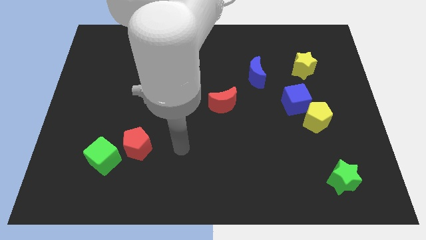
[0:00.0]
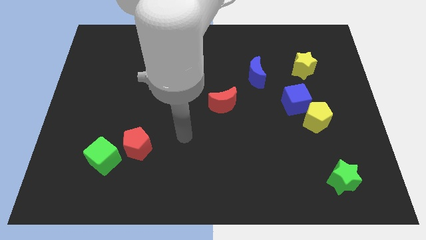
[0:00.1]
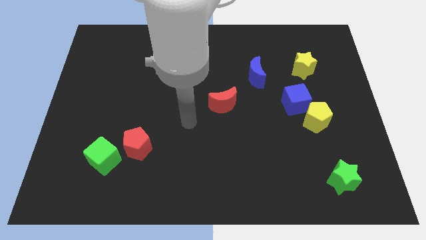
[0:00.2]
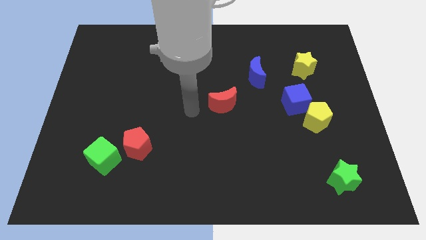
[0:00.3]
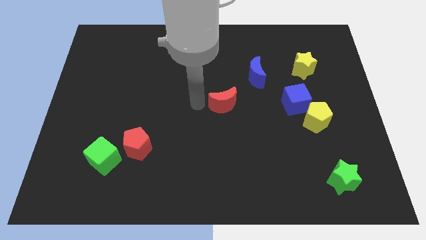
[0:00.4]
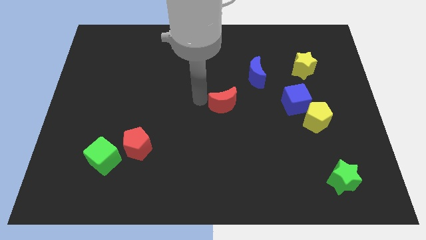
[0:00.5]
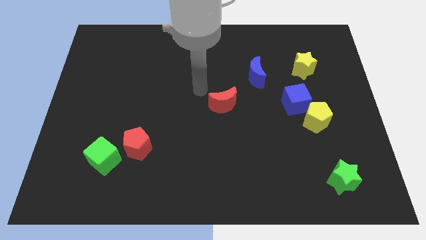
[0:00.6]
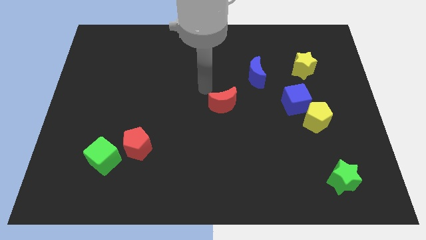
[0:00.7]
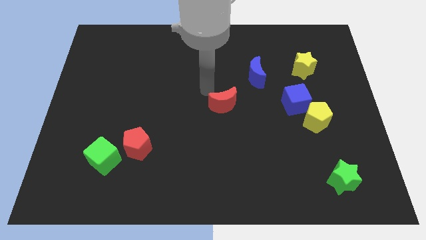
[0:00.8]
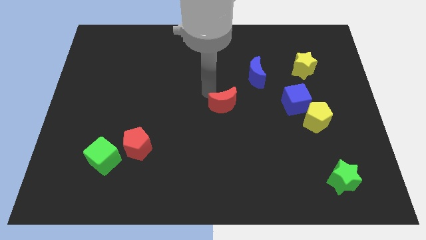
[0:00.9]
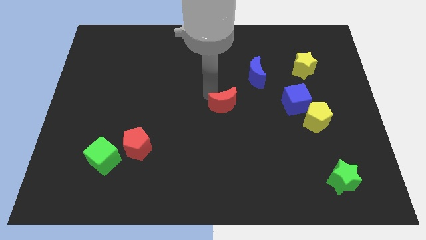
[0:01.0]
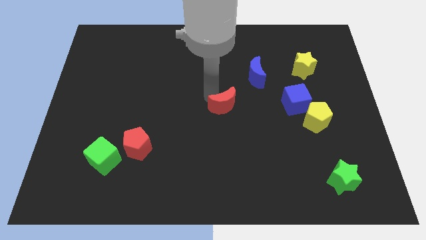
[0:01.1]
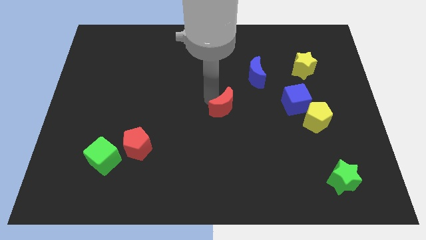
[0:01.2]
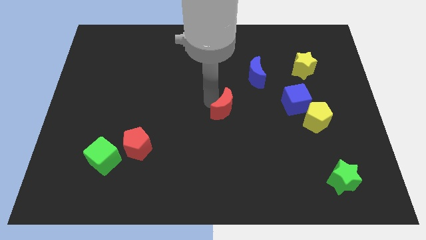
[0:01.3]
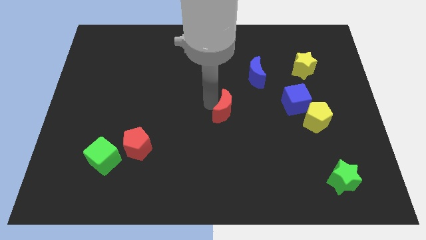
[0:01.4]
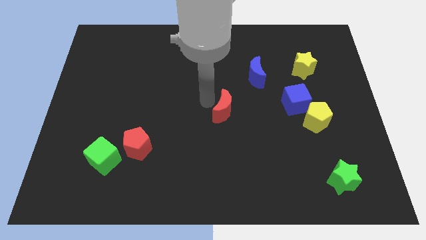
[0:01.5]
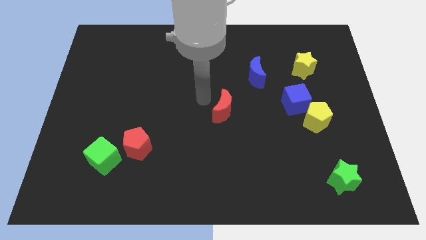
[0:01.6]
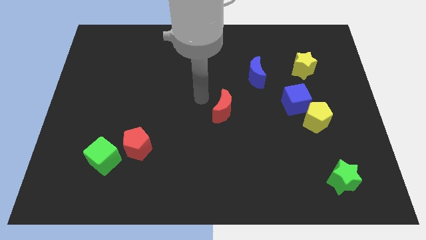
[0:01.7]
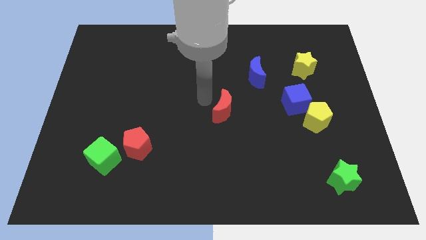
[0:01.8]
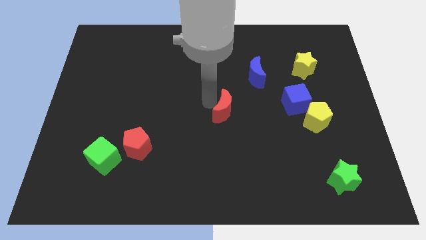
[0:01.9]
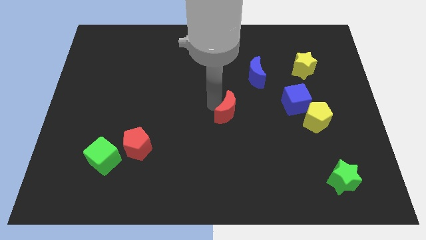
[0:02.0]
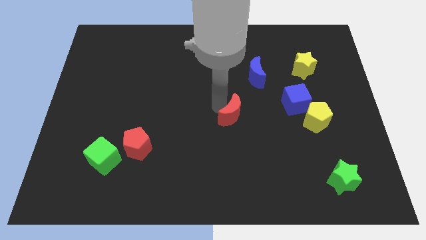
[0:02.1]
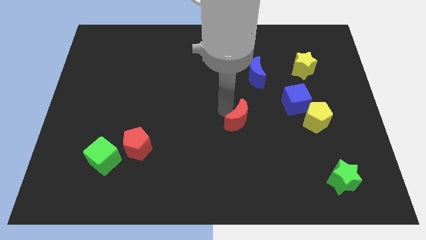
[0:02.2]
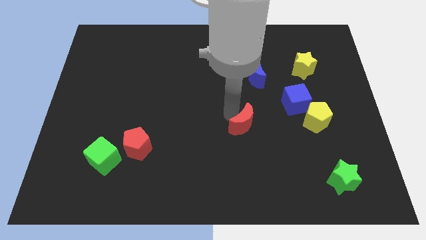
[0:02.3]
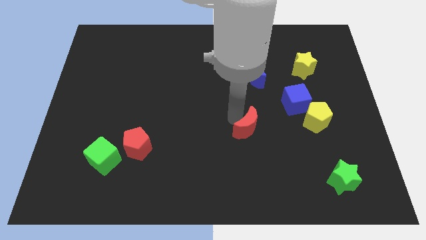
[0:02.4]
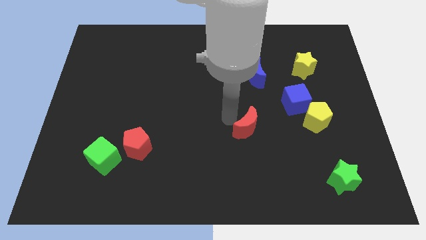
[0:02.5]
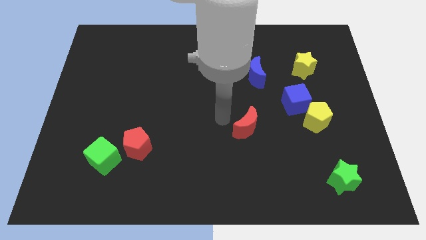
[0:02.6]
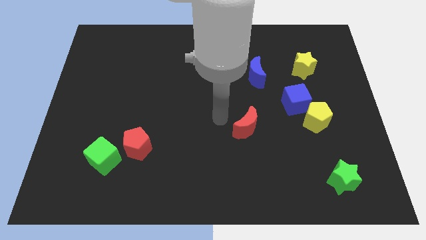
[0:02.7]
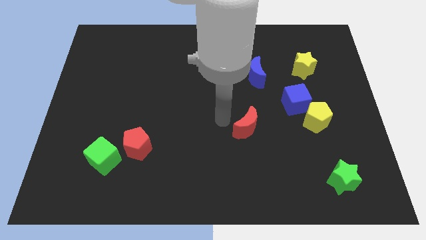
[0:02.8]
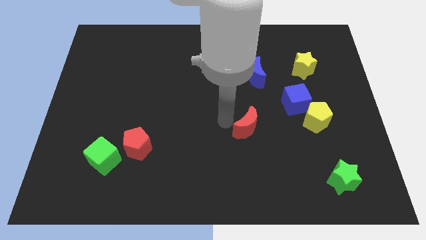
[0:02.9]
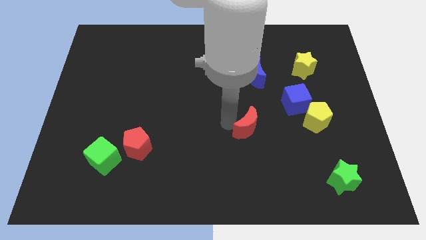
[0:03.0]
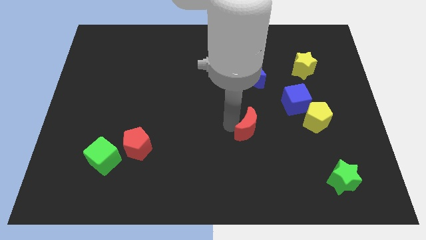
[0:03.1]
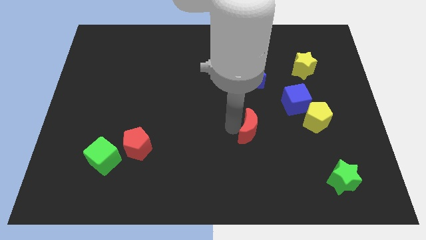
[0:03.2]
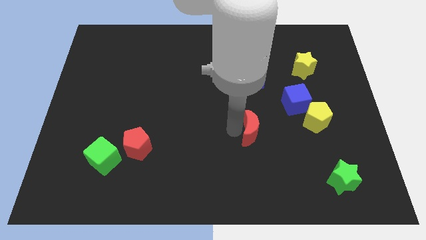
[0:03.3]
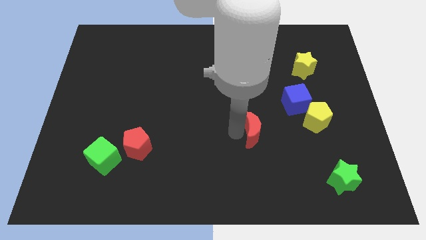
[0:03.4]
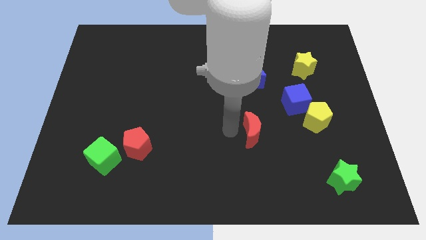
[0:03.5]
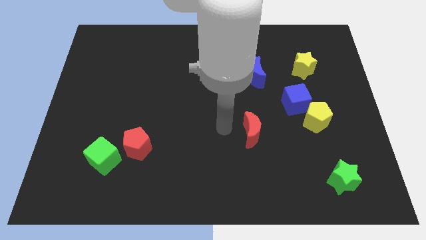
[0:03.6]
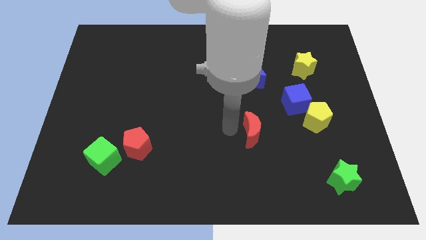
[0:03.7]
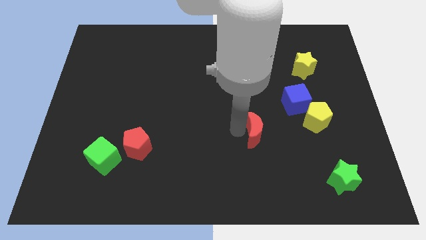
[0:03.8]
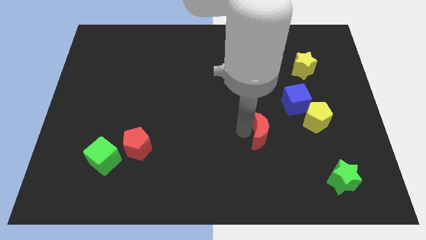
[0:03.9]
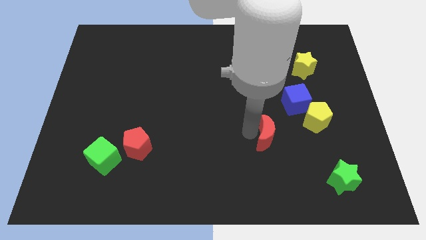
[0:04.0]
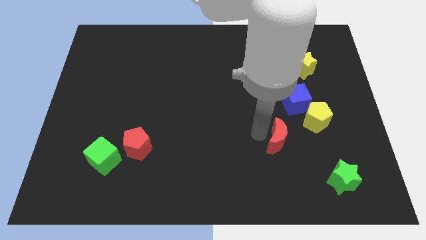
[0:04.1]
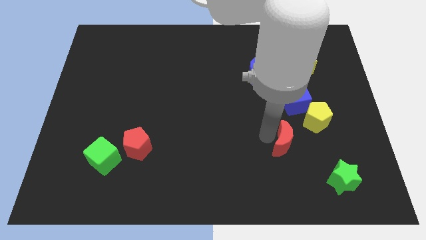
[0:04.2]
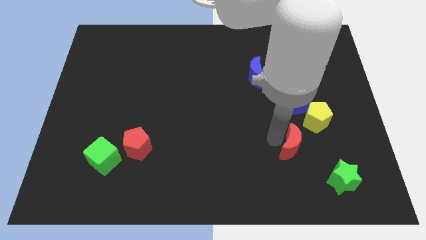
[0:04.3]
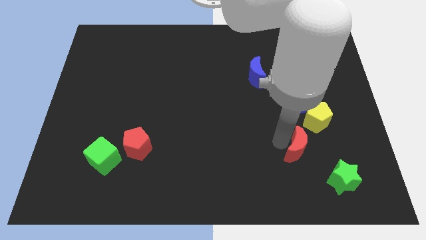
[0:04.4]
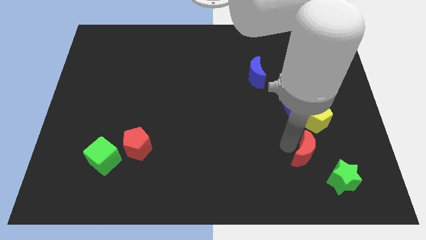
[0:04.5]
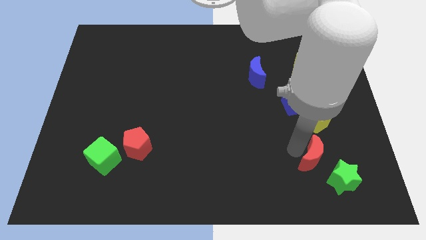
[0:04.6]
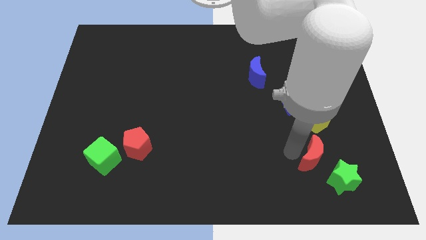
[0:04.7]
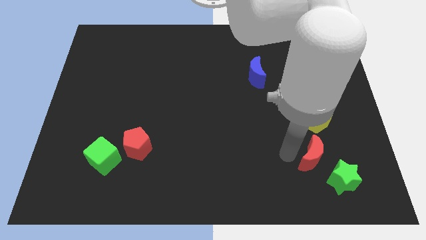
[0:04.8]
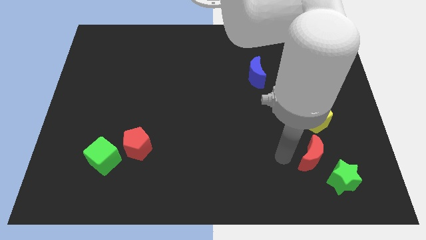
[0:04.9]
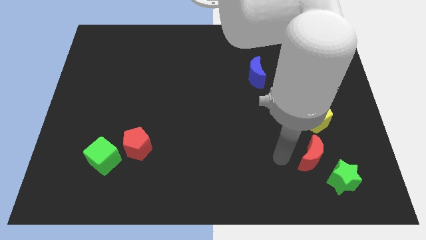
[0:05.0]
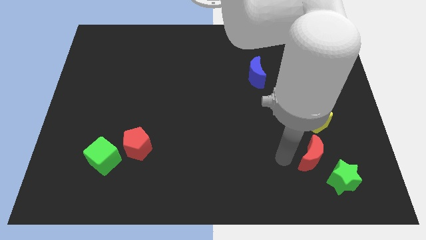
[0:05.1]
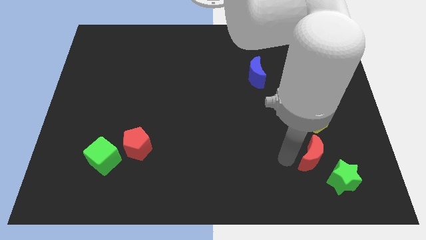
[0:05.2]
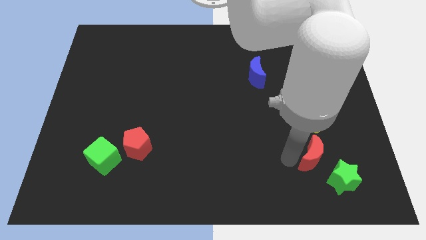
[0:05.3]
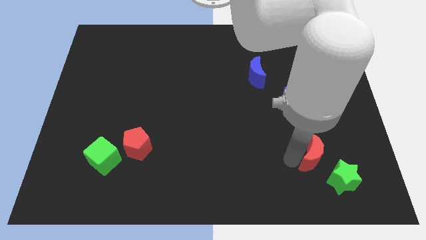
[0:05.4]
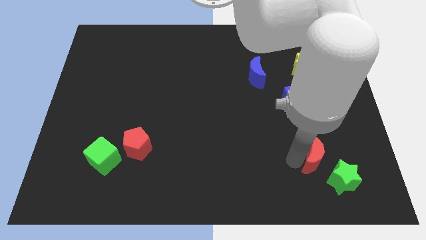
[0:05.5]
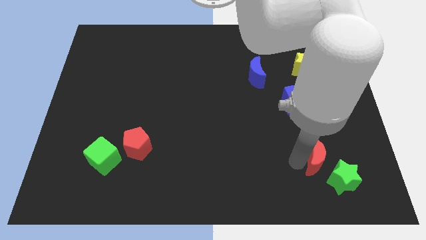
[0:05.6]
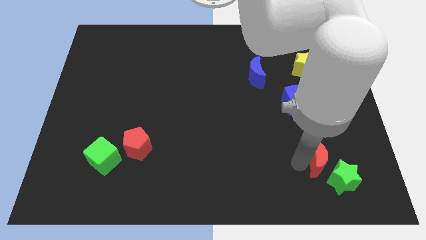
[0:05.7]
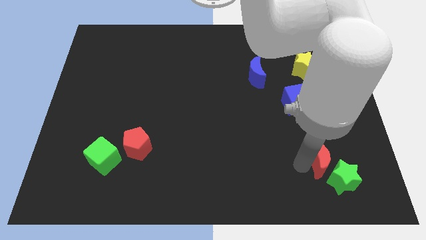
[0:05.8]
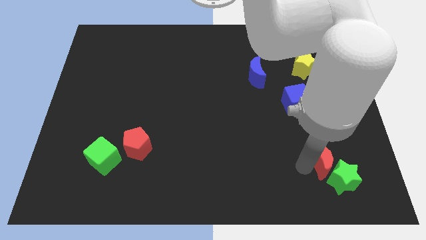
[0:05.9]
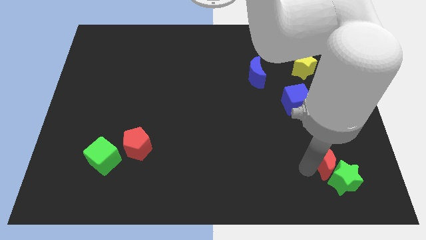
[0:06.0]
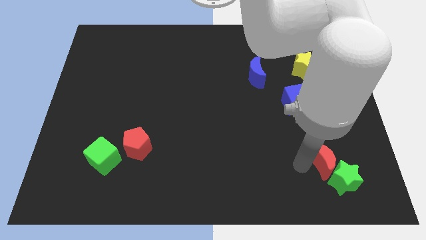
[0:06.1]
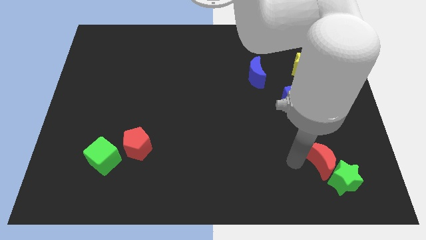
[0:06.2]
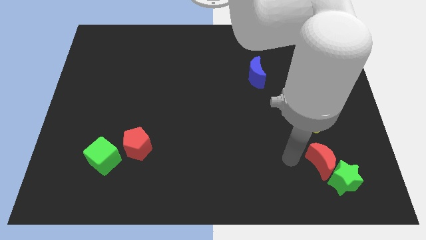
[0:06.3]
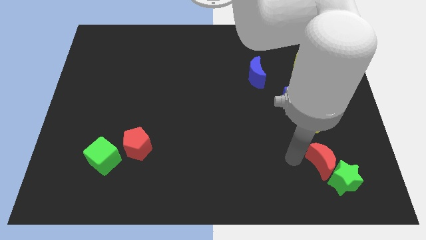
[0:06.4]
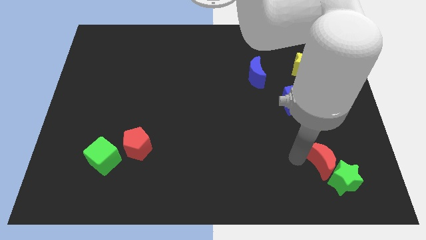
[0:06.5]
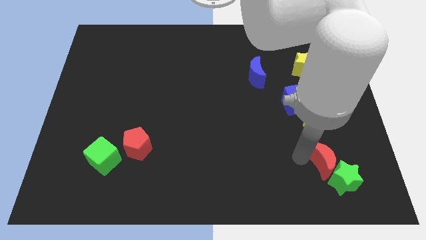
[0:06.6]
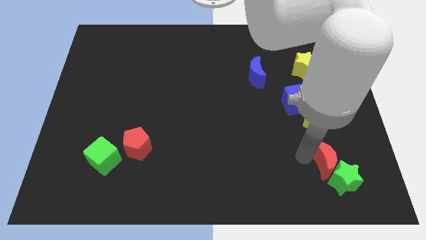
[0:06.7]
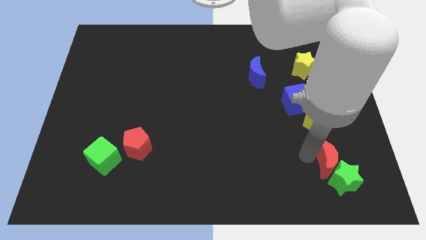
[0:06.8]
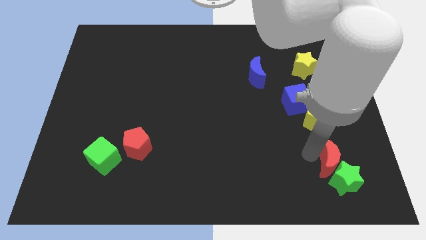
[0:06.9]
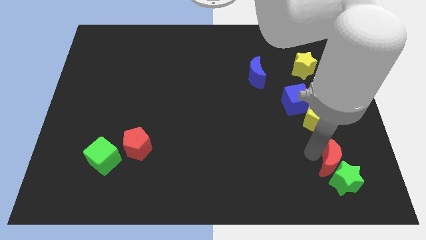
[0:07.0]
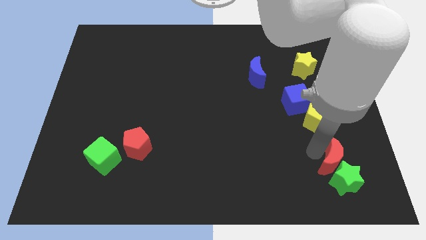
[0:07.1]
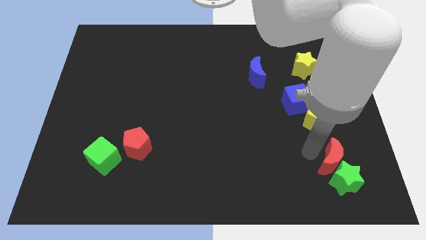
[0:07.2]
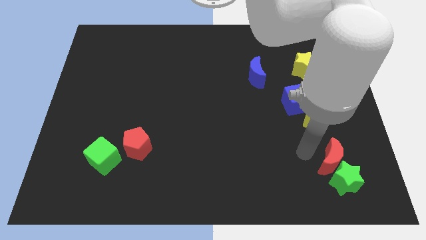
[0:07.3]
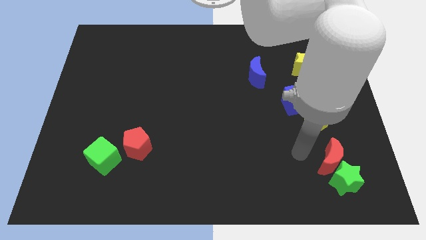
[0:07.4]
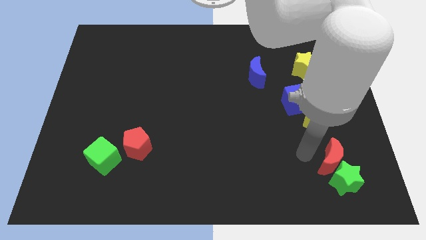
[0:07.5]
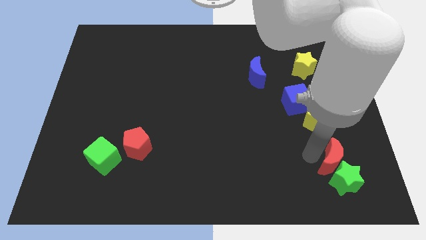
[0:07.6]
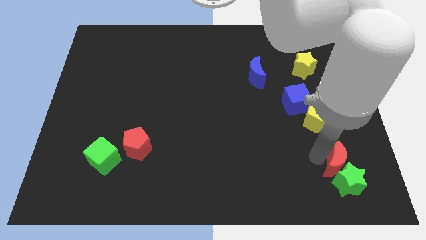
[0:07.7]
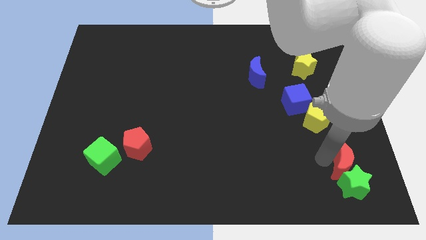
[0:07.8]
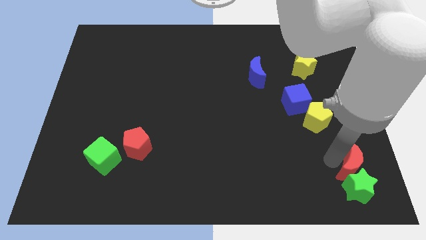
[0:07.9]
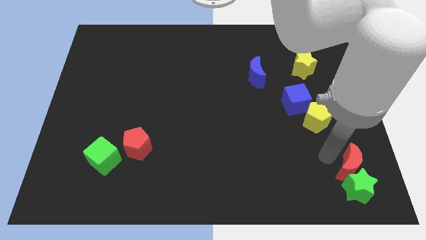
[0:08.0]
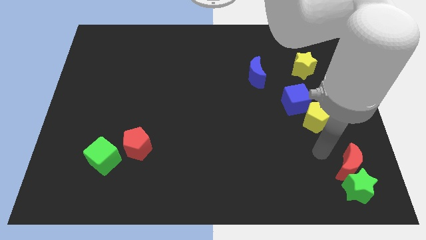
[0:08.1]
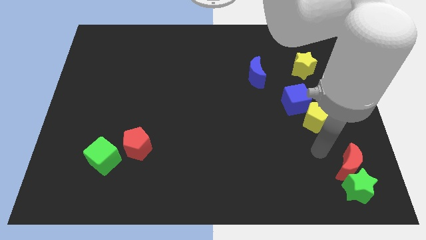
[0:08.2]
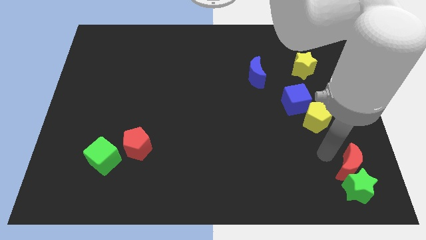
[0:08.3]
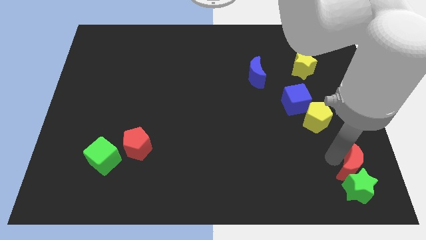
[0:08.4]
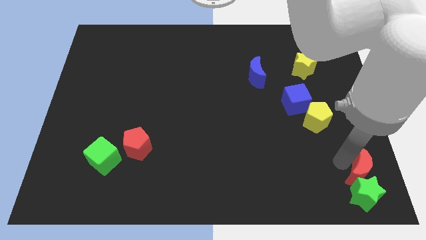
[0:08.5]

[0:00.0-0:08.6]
put the red moon to the bottom right corner

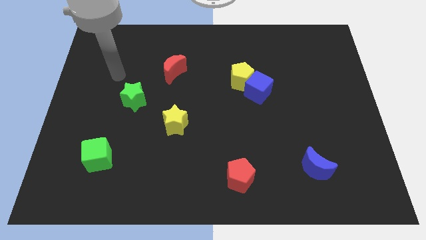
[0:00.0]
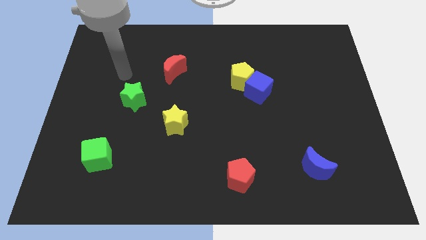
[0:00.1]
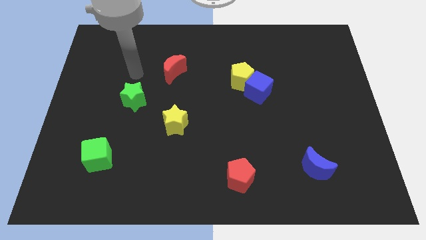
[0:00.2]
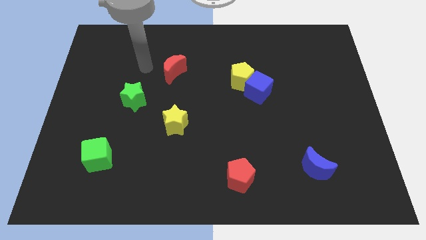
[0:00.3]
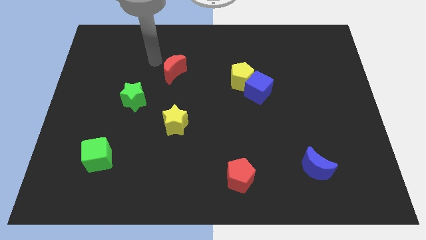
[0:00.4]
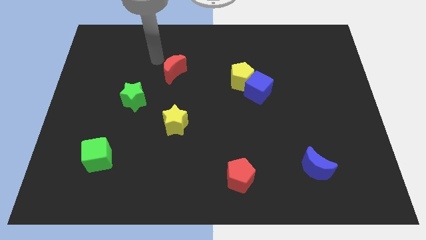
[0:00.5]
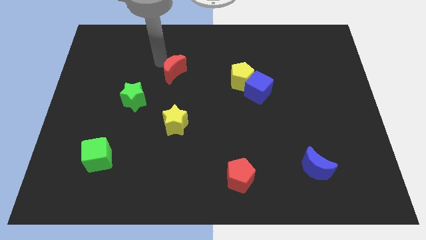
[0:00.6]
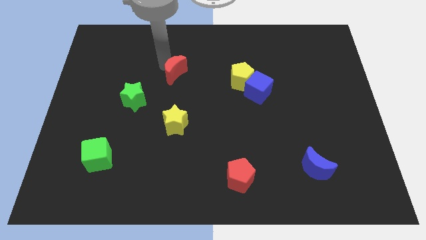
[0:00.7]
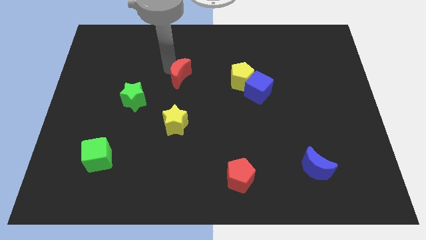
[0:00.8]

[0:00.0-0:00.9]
slide the red moon to the middle
